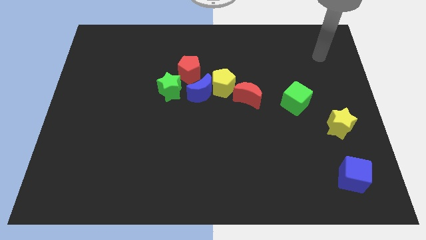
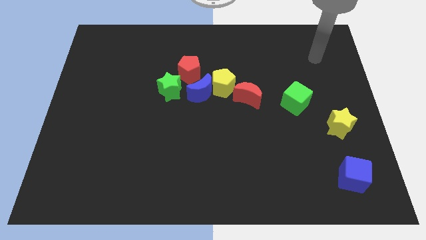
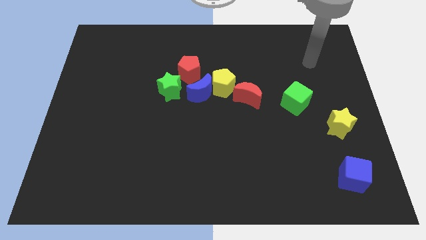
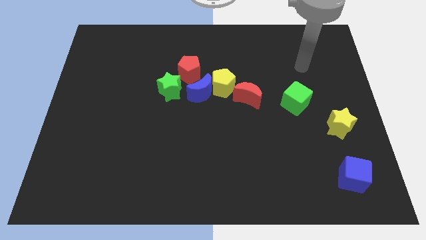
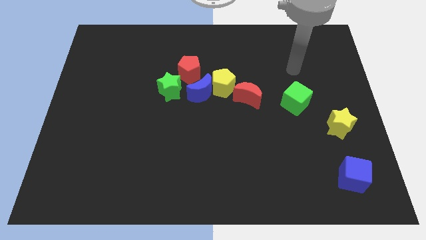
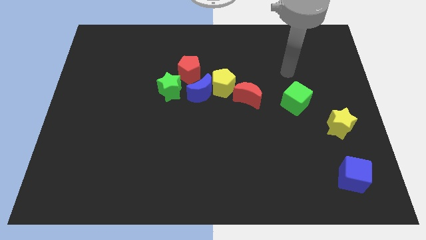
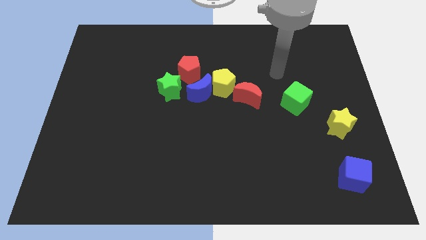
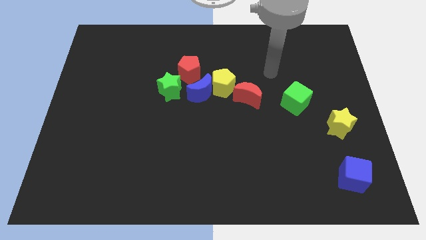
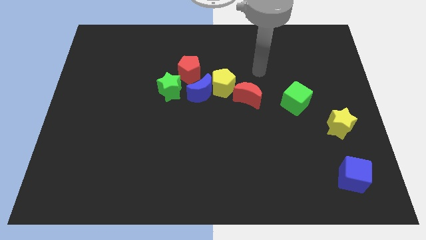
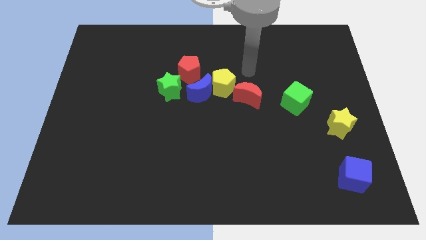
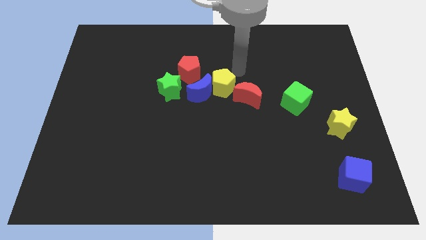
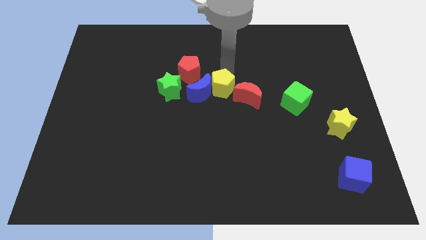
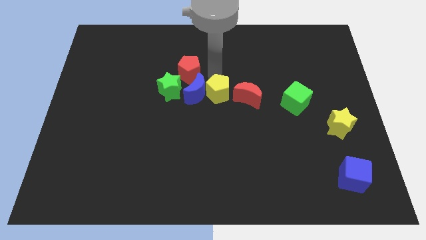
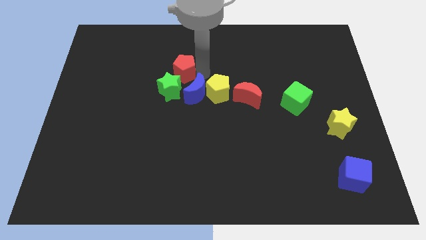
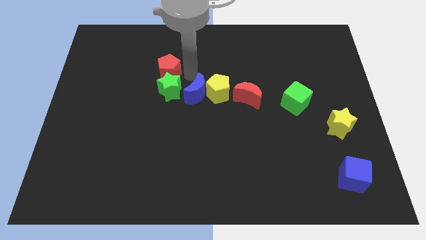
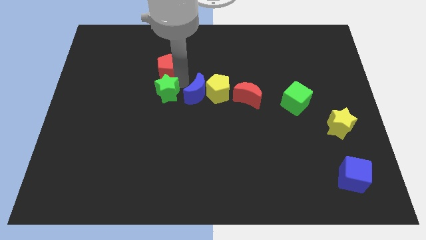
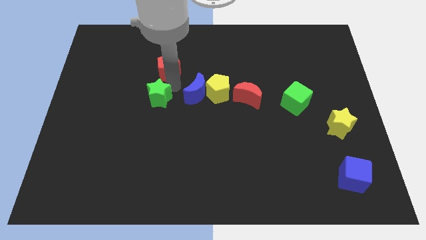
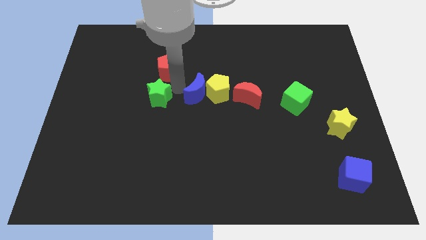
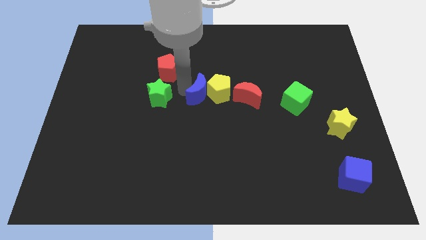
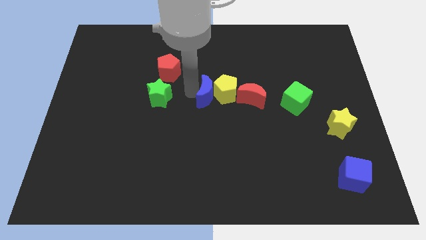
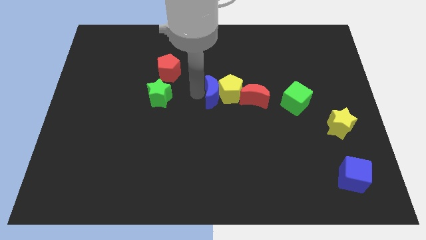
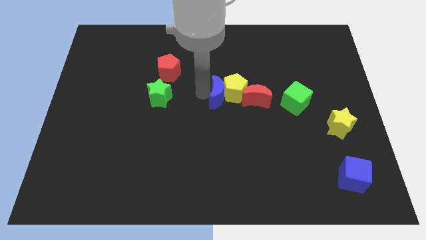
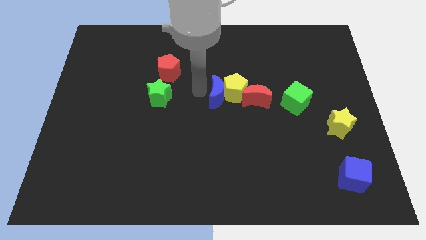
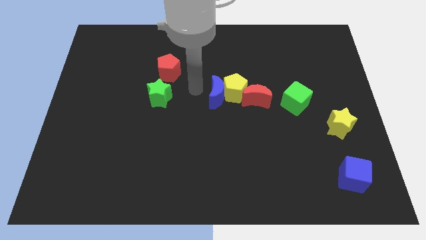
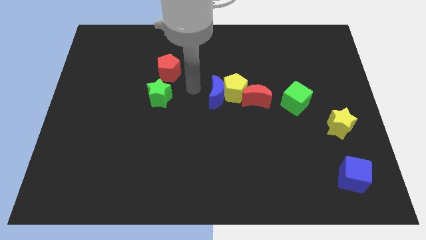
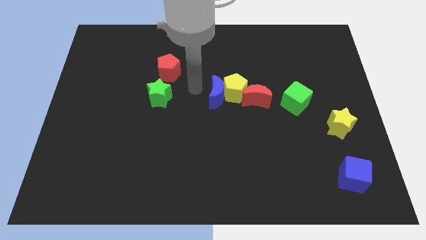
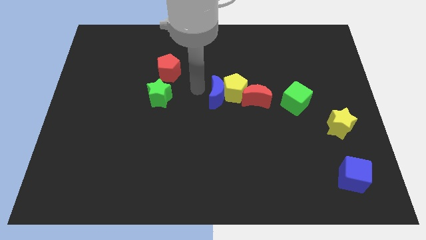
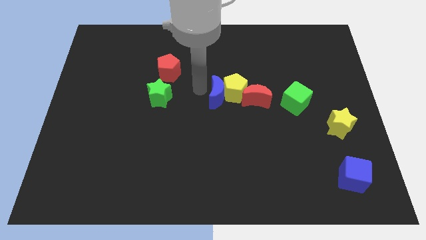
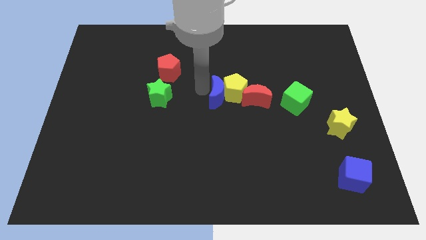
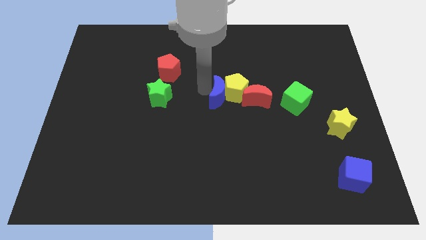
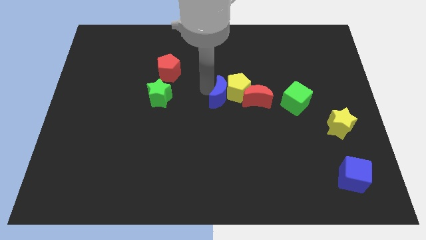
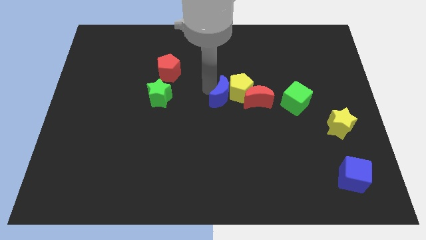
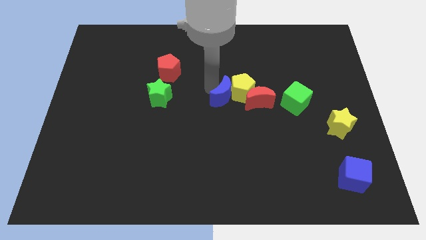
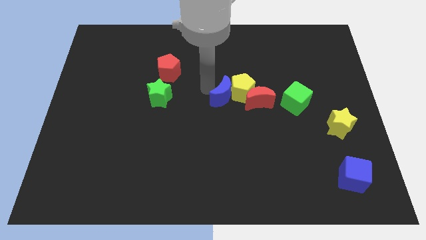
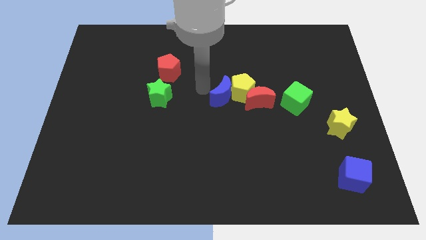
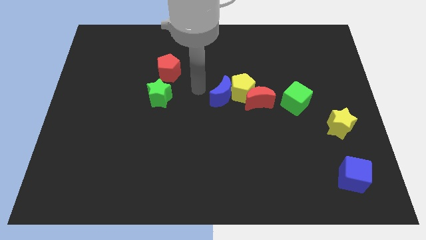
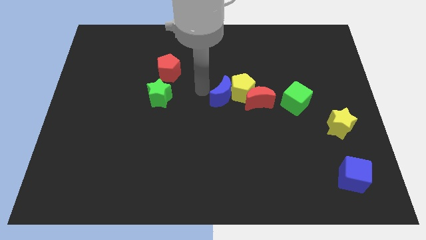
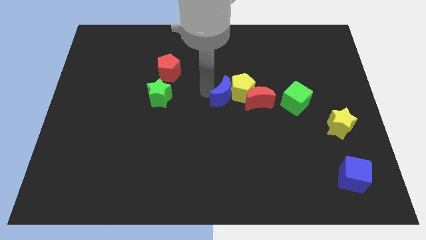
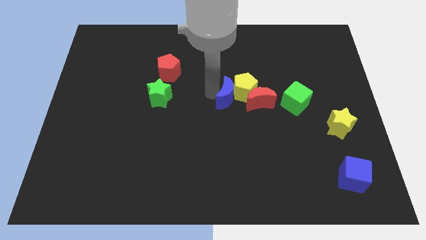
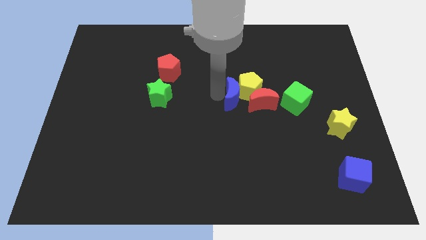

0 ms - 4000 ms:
separate the blue moon from the group

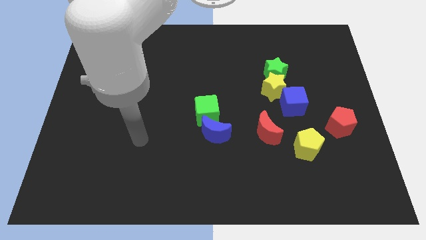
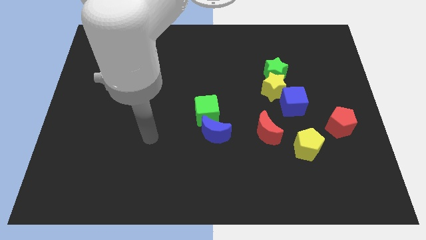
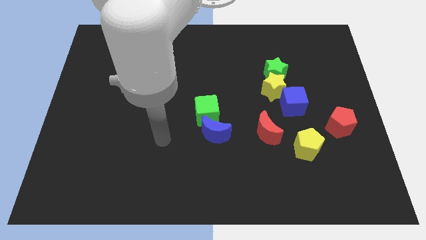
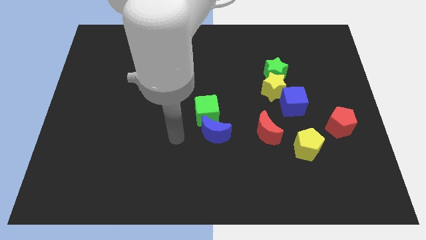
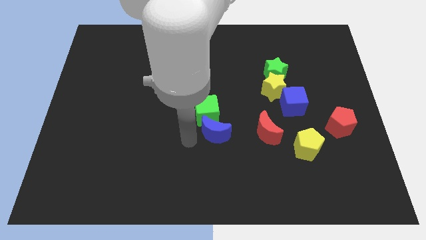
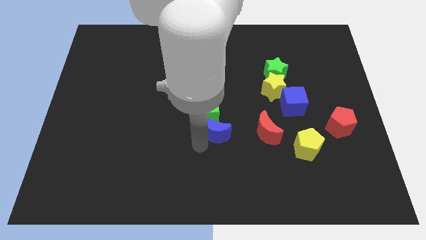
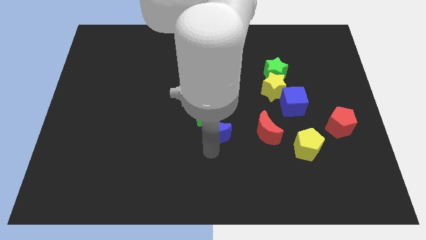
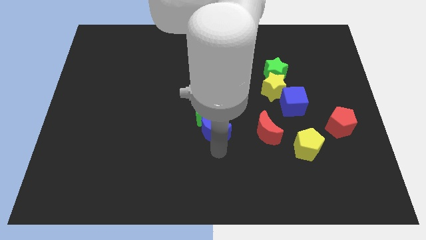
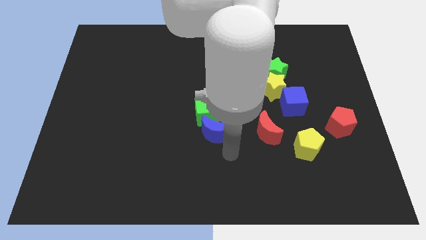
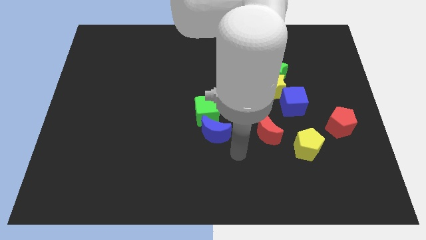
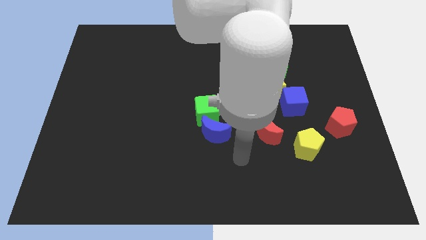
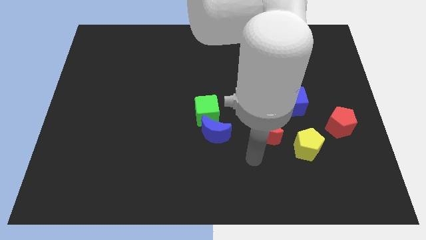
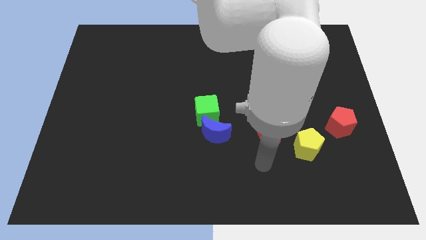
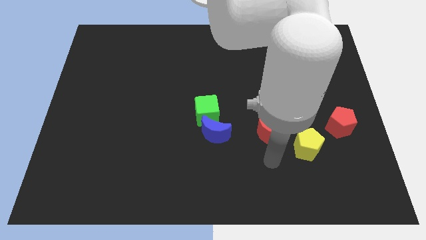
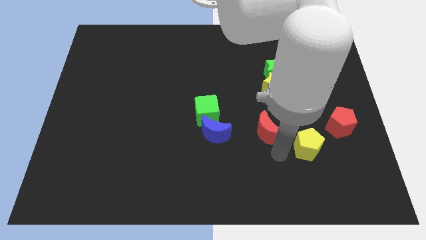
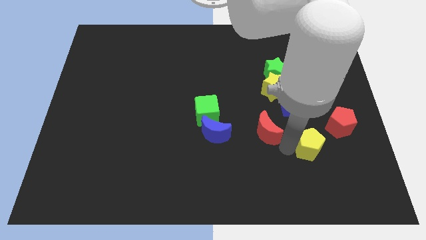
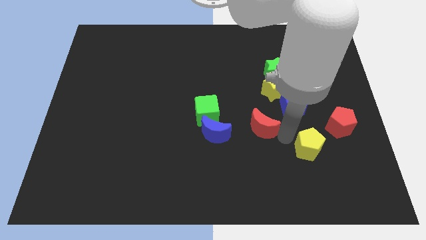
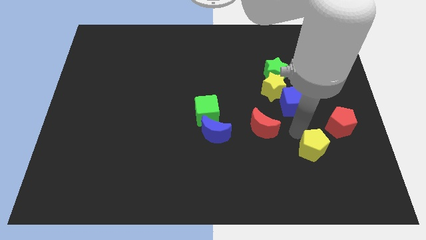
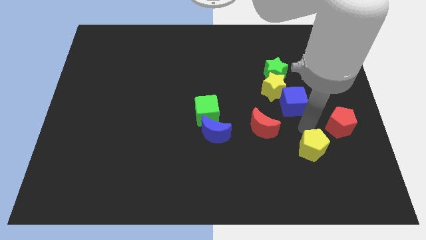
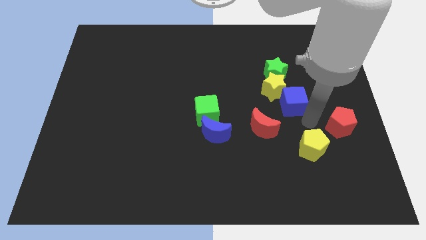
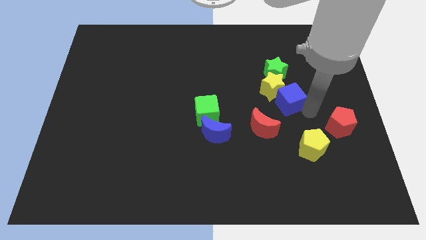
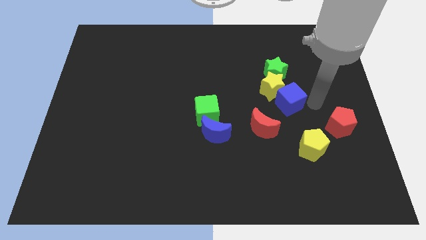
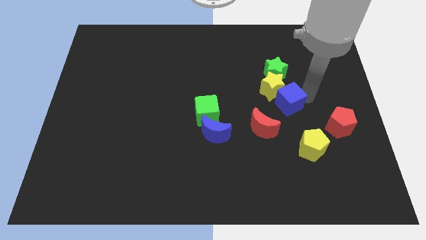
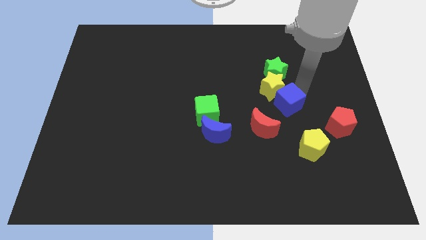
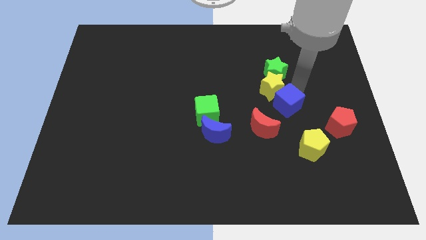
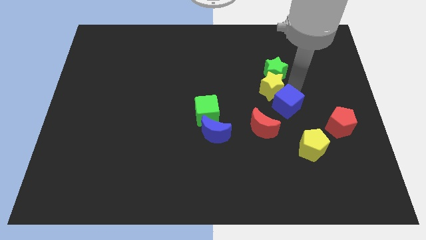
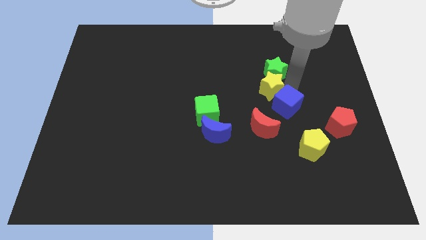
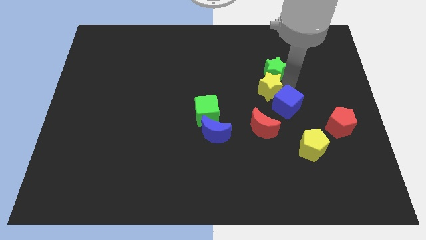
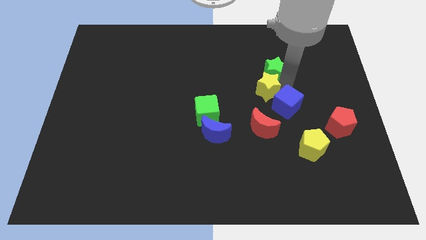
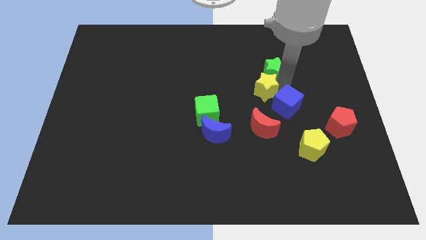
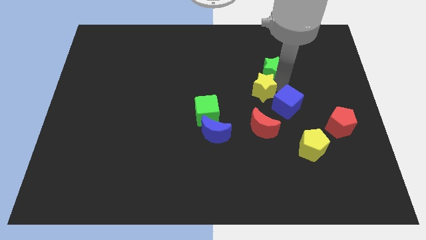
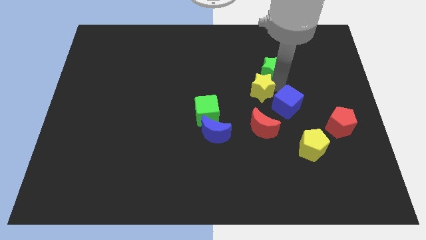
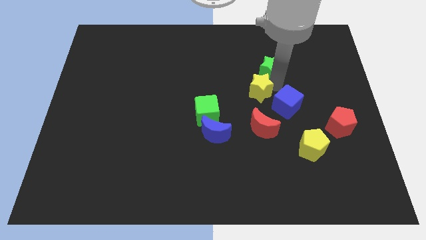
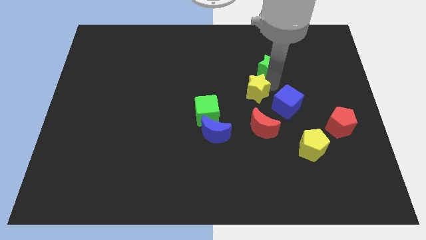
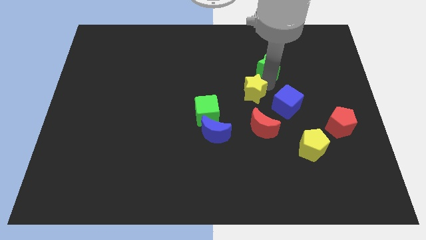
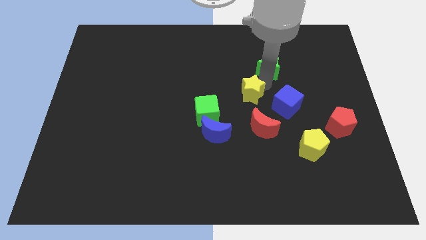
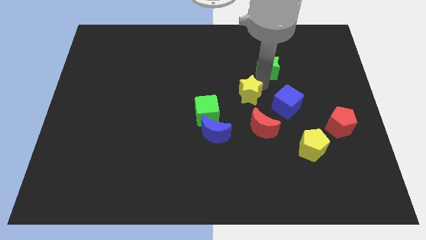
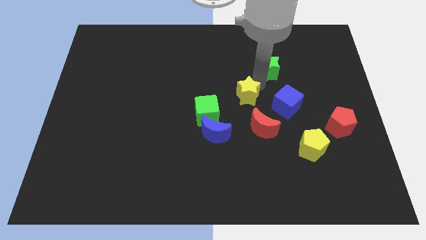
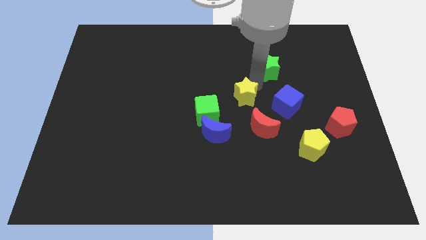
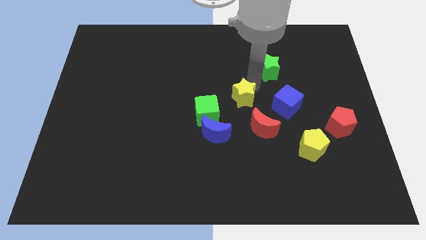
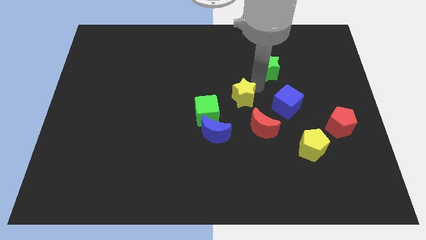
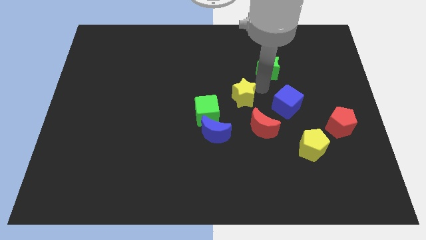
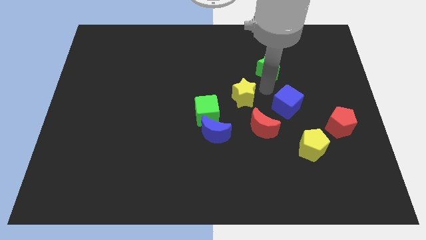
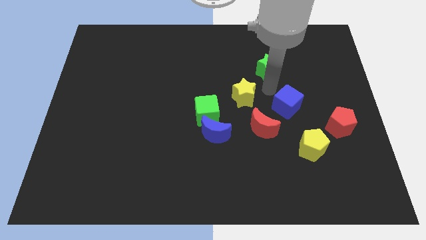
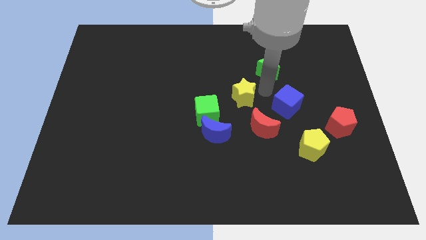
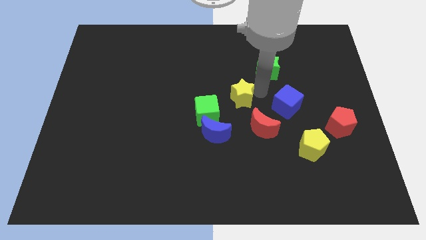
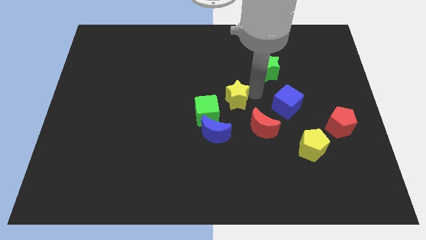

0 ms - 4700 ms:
separate the yellow star from the green star and blue cube

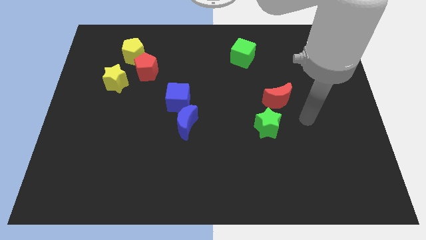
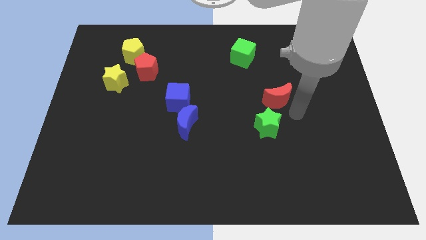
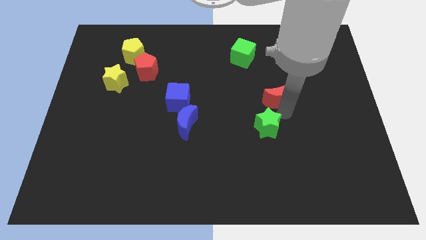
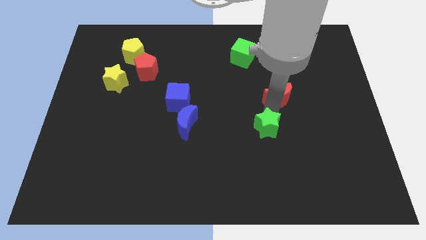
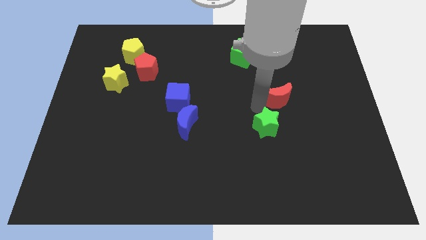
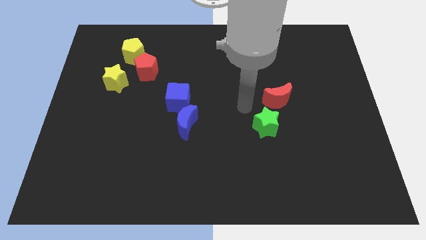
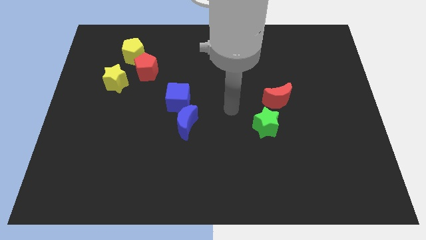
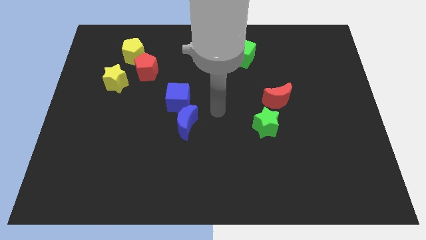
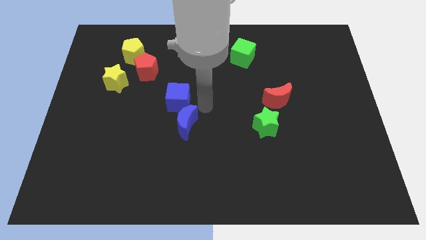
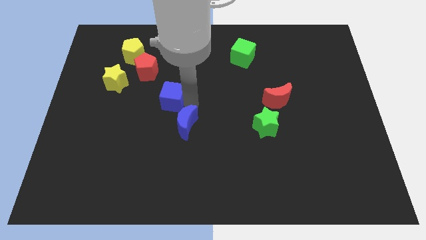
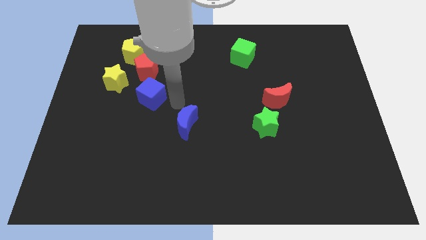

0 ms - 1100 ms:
move the blue moon away from the blue cube
